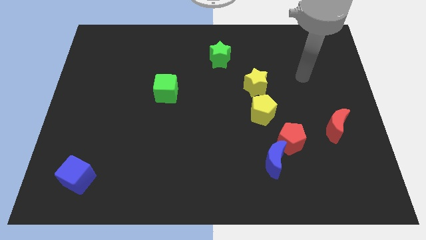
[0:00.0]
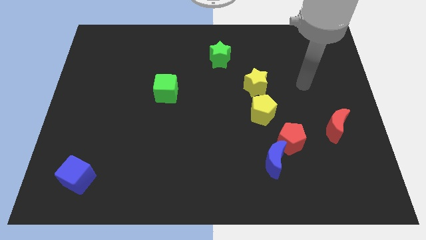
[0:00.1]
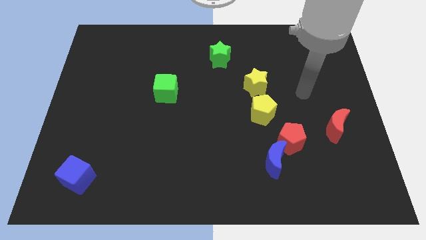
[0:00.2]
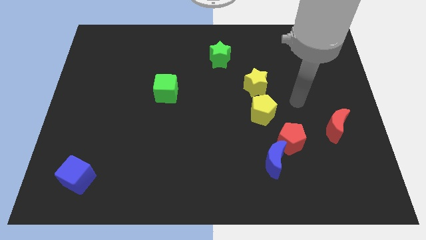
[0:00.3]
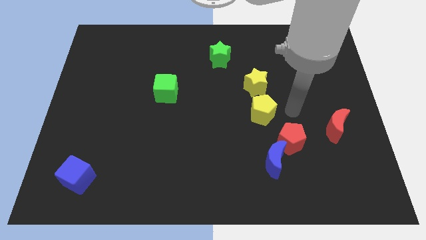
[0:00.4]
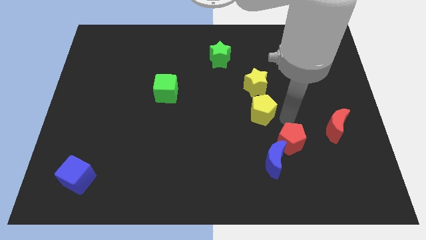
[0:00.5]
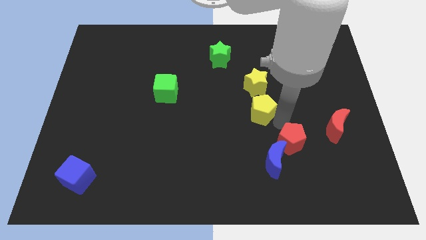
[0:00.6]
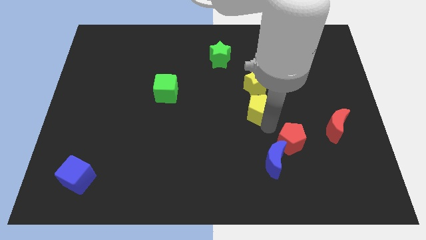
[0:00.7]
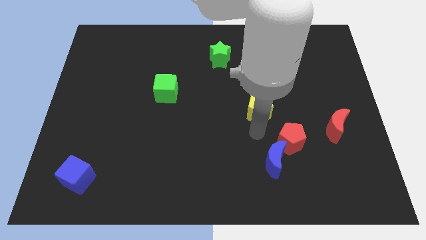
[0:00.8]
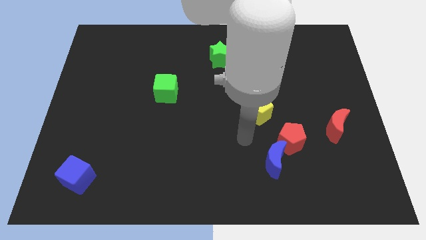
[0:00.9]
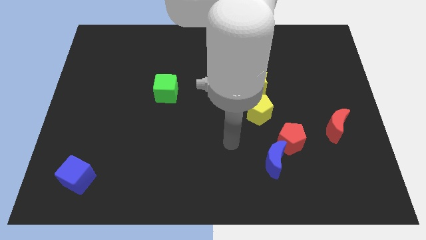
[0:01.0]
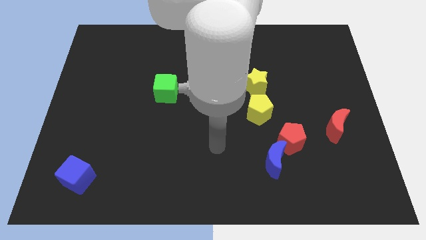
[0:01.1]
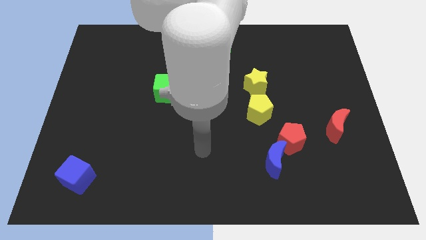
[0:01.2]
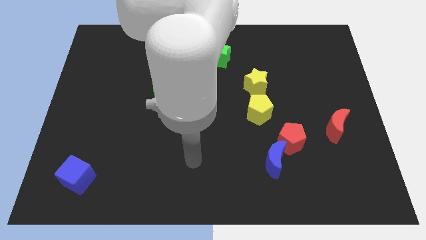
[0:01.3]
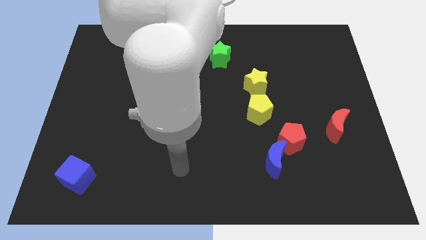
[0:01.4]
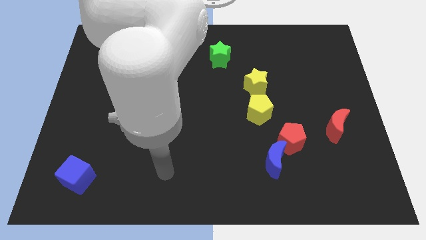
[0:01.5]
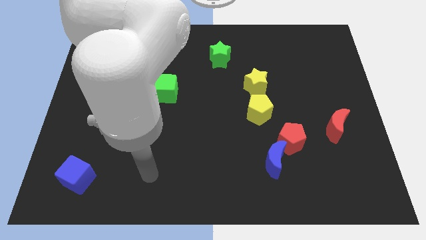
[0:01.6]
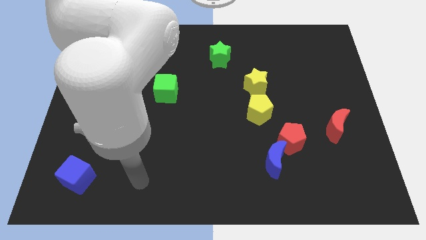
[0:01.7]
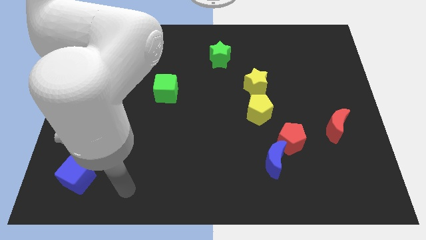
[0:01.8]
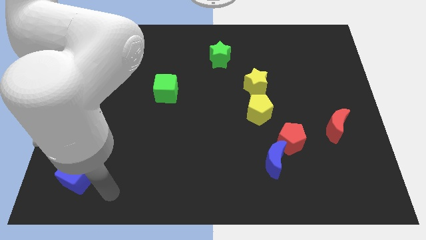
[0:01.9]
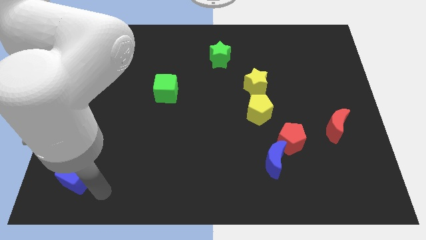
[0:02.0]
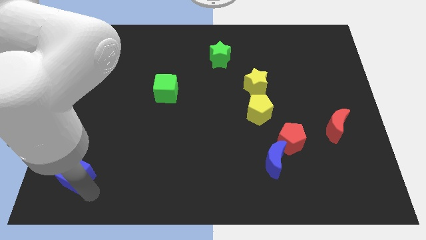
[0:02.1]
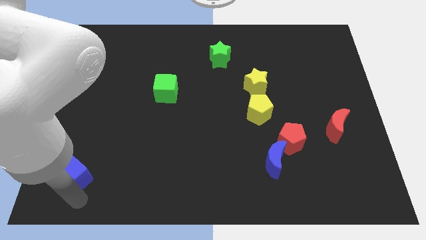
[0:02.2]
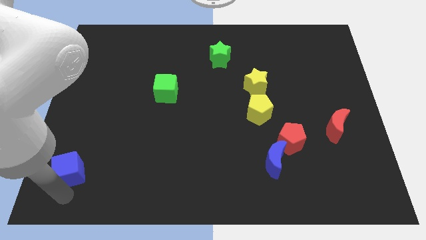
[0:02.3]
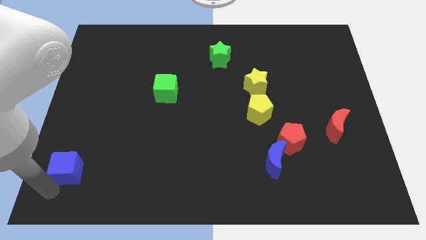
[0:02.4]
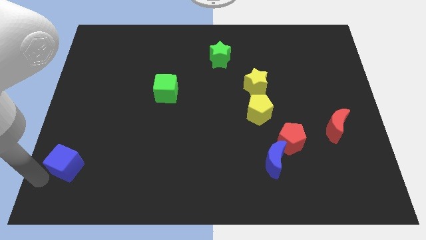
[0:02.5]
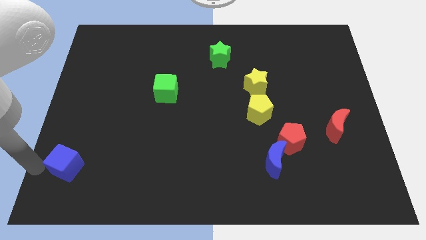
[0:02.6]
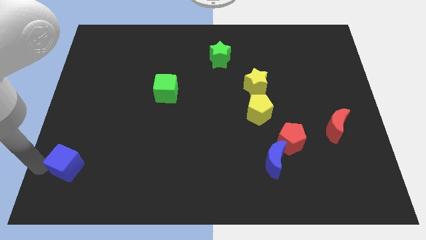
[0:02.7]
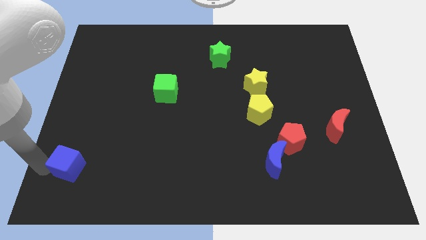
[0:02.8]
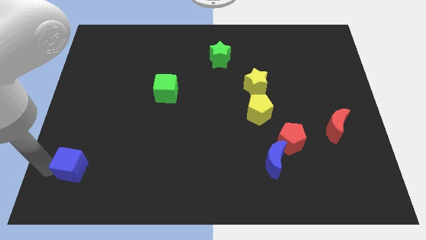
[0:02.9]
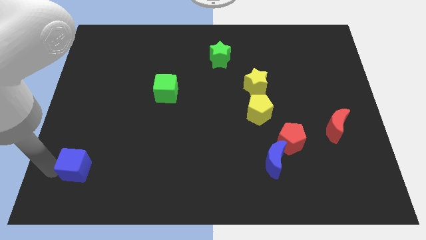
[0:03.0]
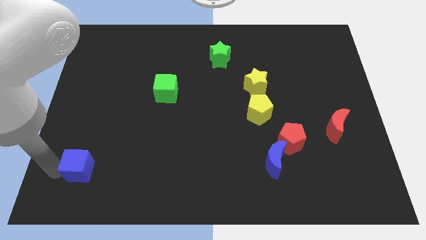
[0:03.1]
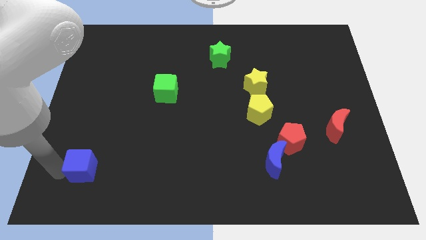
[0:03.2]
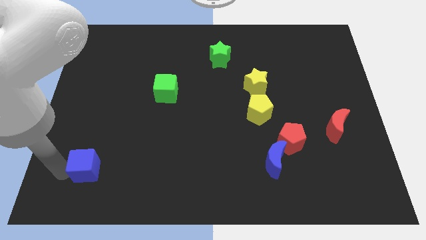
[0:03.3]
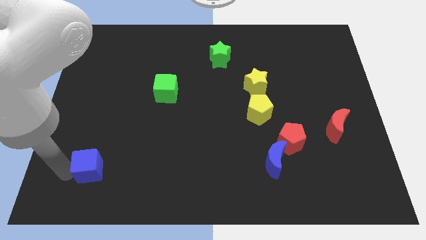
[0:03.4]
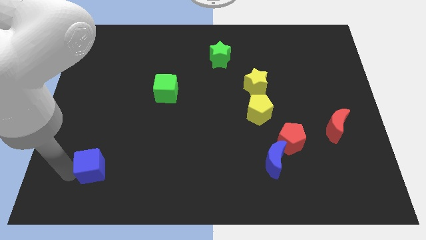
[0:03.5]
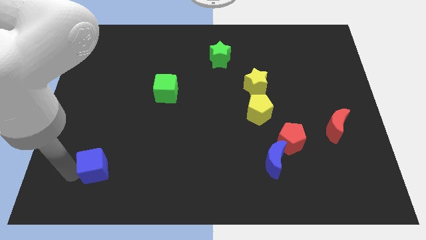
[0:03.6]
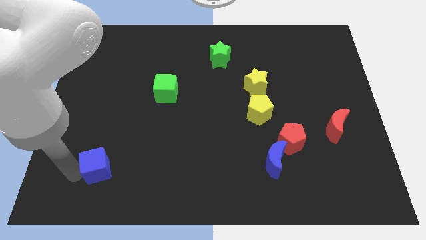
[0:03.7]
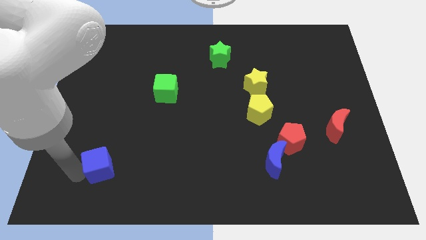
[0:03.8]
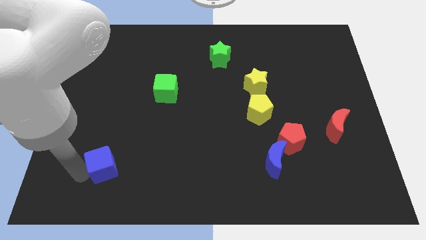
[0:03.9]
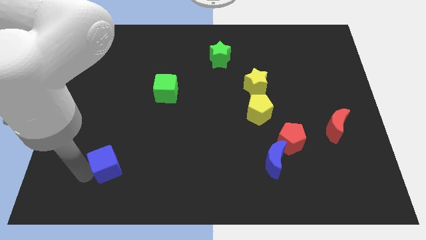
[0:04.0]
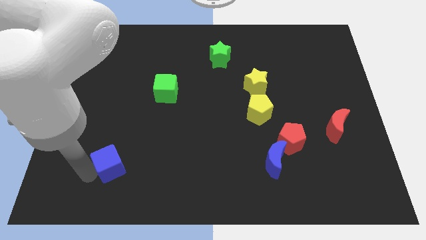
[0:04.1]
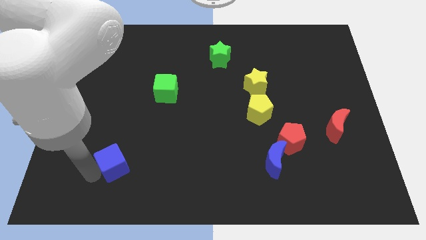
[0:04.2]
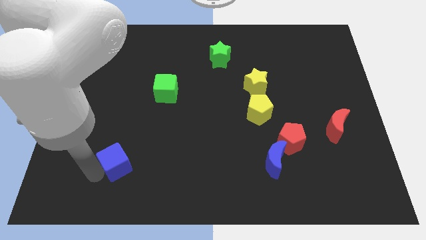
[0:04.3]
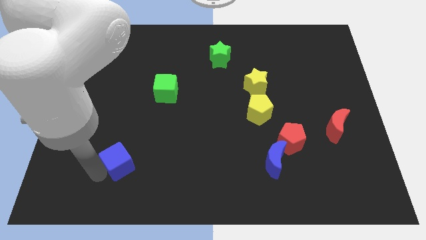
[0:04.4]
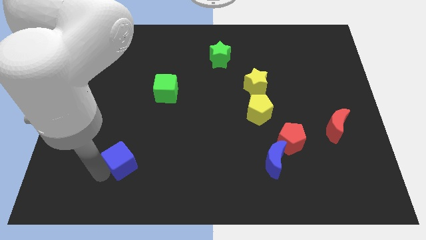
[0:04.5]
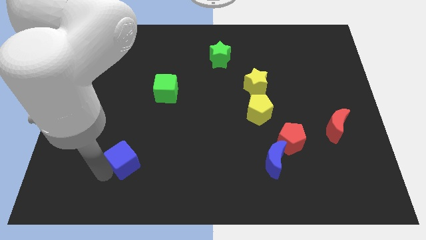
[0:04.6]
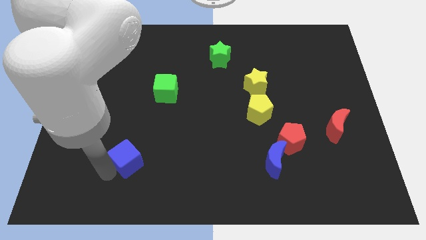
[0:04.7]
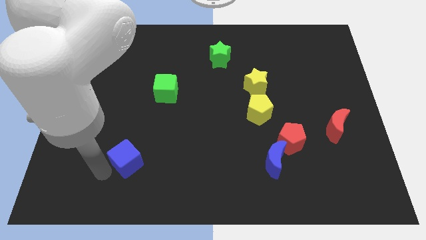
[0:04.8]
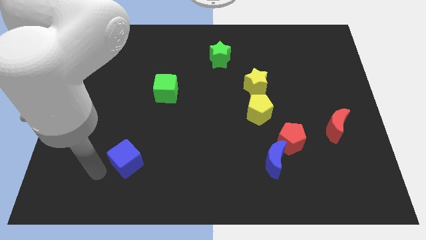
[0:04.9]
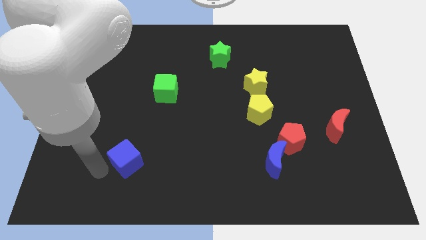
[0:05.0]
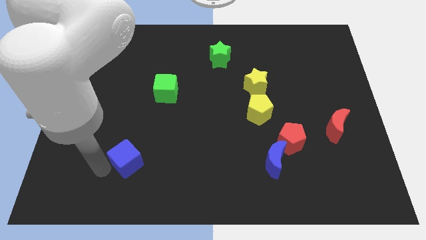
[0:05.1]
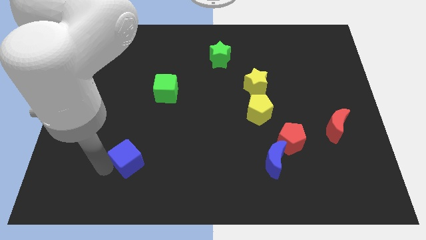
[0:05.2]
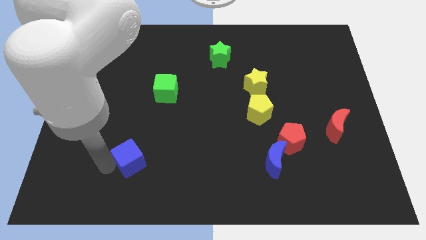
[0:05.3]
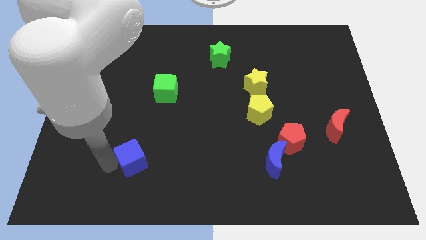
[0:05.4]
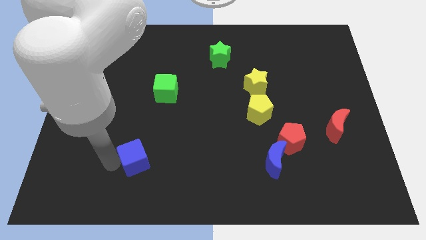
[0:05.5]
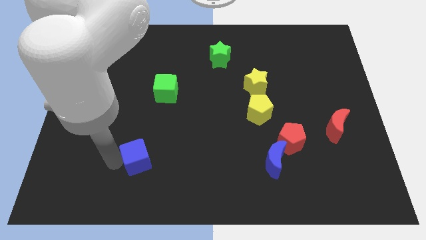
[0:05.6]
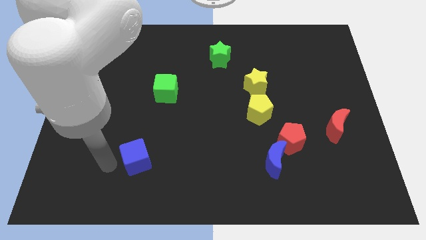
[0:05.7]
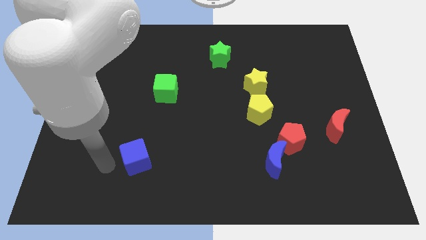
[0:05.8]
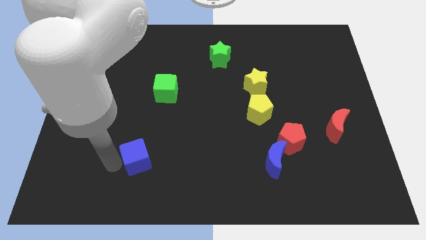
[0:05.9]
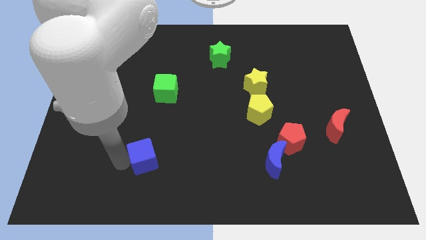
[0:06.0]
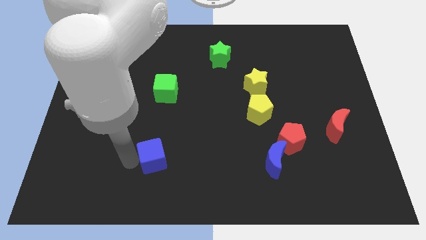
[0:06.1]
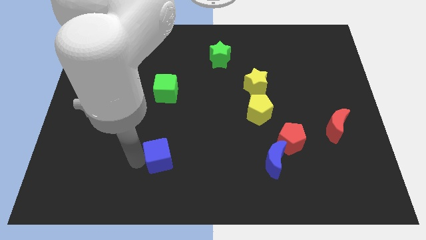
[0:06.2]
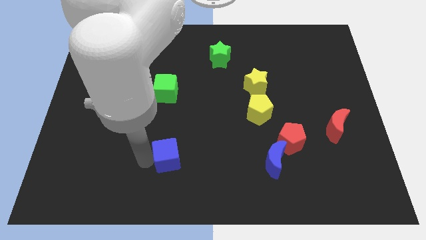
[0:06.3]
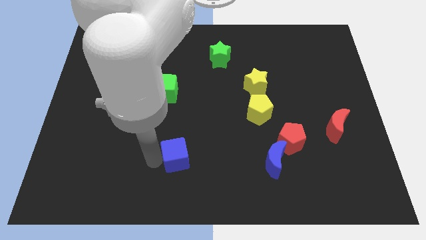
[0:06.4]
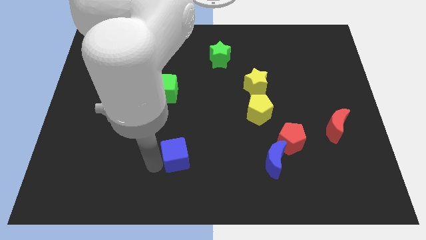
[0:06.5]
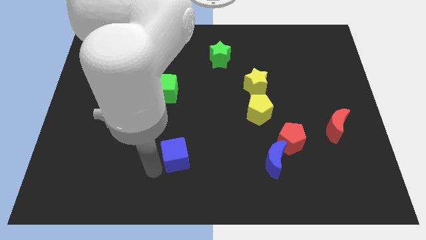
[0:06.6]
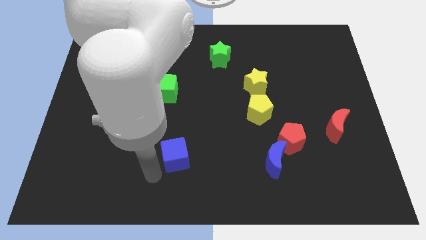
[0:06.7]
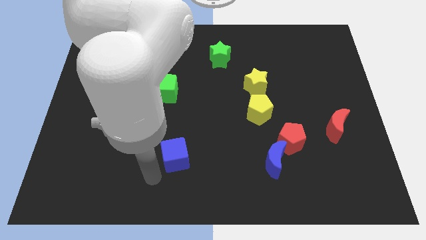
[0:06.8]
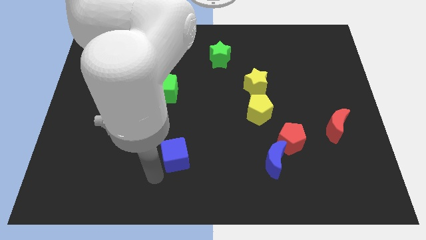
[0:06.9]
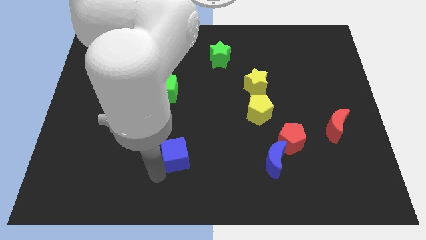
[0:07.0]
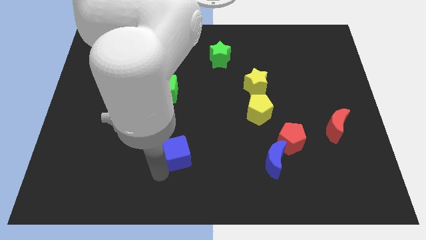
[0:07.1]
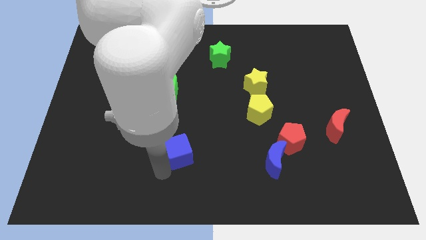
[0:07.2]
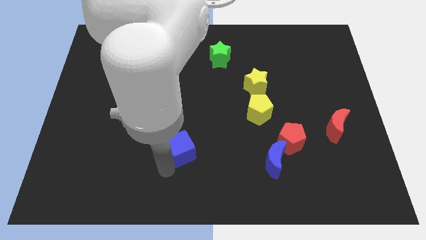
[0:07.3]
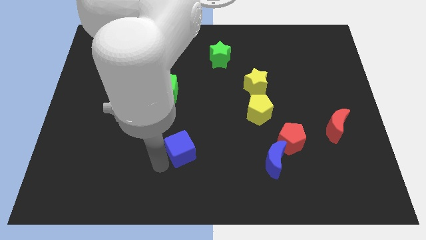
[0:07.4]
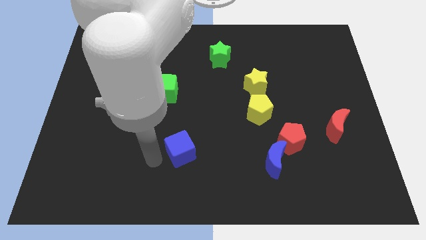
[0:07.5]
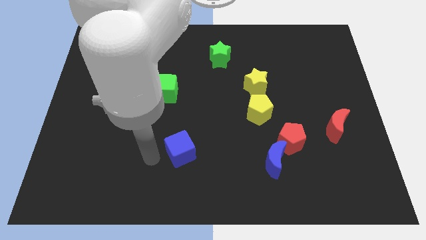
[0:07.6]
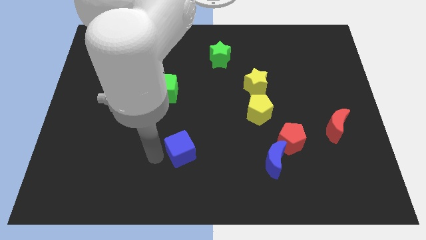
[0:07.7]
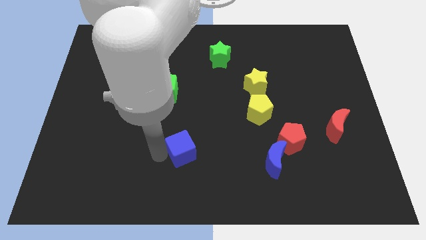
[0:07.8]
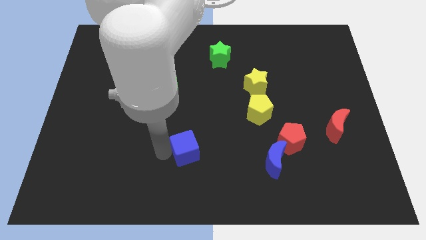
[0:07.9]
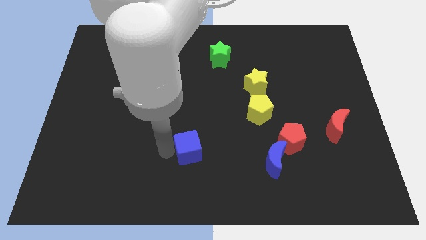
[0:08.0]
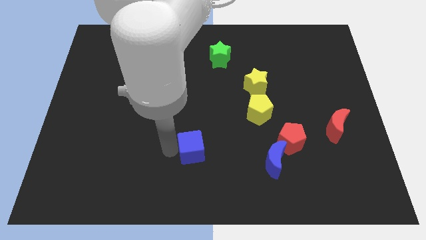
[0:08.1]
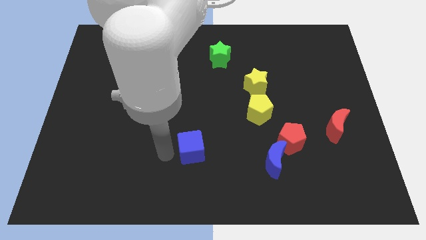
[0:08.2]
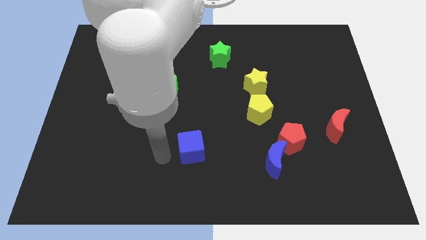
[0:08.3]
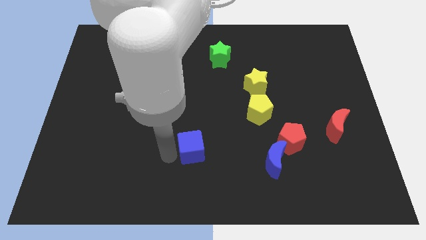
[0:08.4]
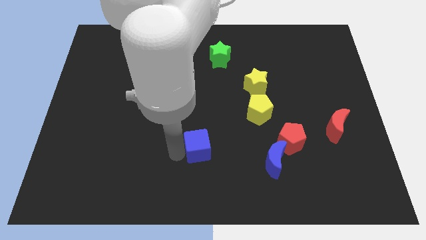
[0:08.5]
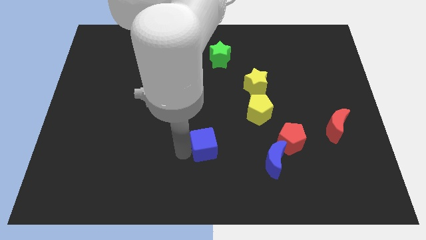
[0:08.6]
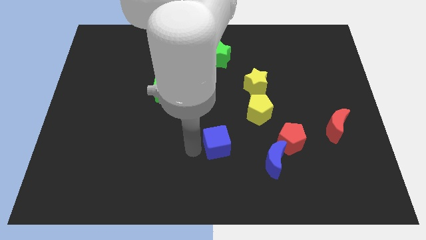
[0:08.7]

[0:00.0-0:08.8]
move the blue cube just left of the red pentagon
